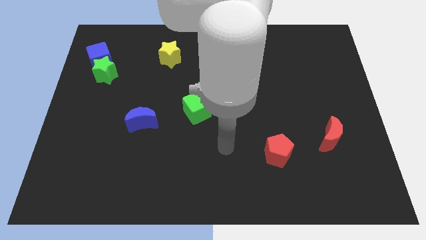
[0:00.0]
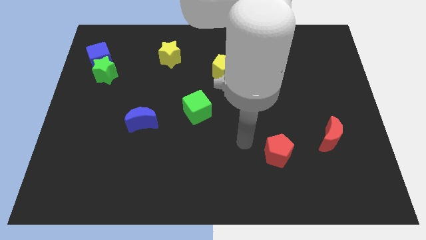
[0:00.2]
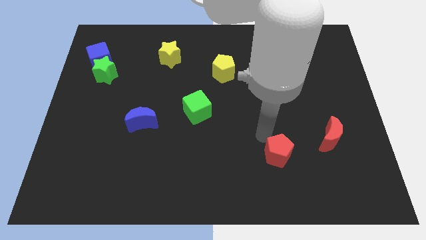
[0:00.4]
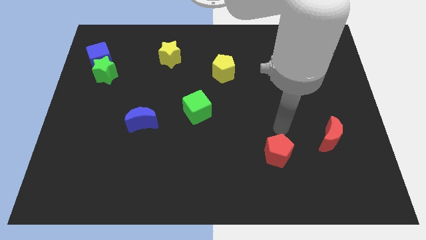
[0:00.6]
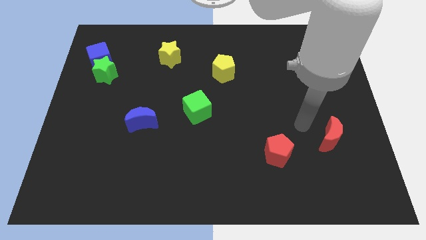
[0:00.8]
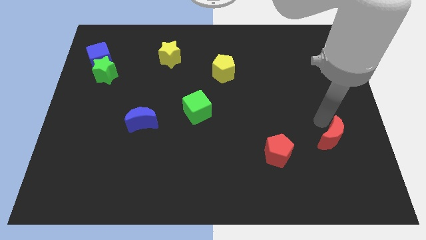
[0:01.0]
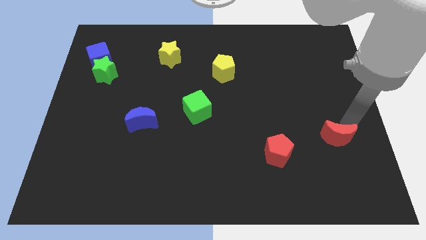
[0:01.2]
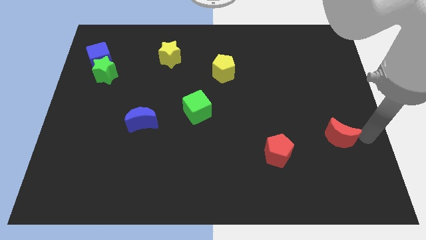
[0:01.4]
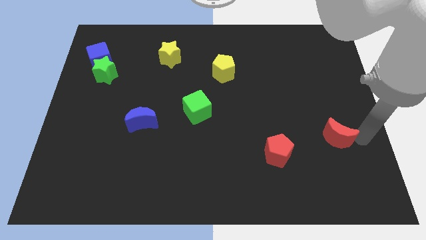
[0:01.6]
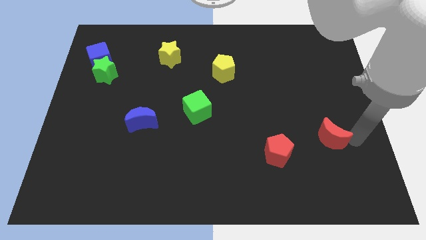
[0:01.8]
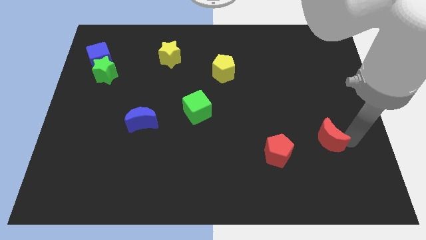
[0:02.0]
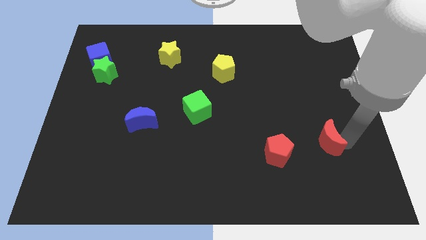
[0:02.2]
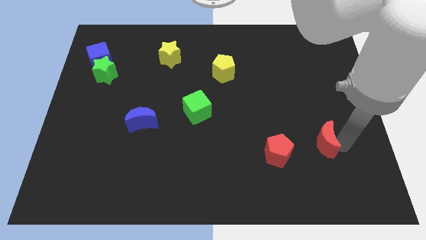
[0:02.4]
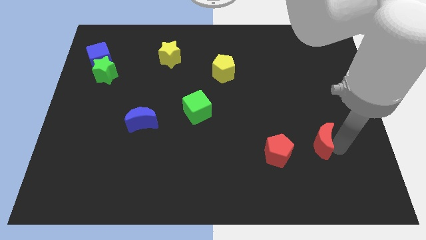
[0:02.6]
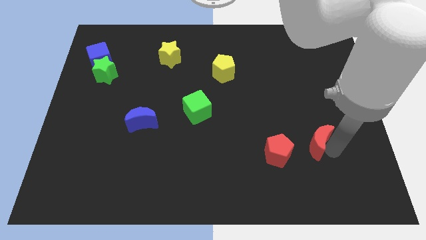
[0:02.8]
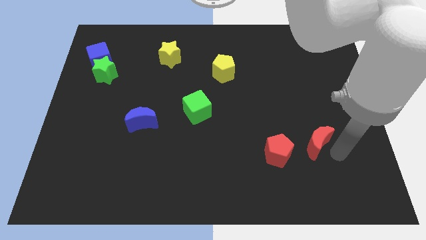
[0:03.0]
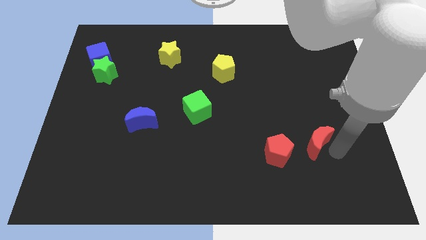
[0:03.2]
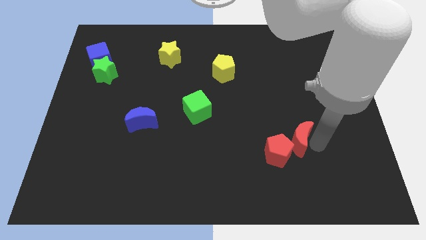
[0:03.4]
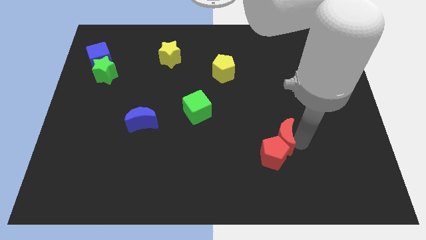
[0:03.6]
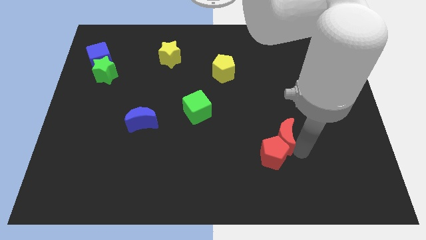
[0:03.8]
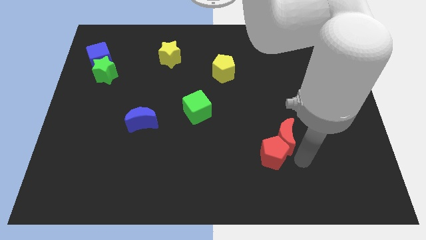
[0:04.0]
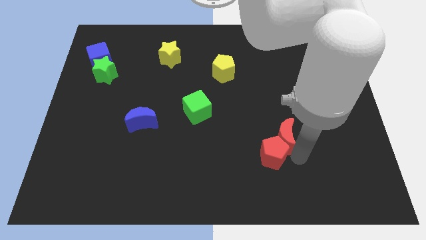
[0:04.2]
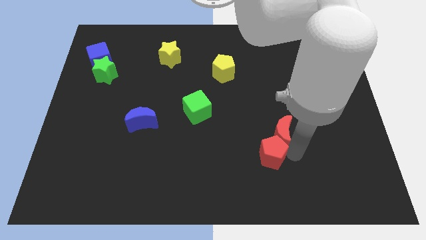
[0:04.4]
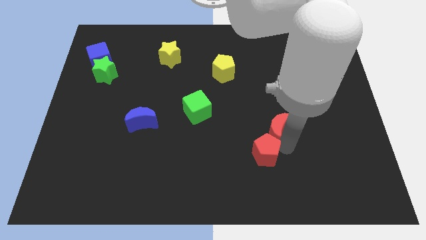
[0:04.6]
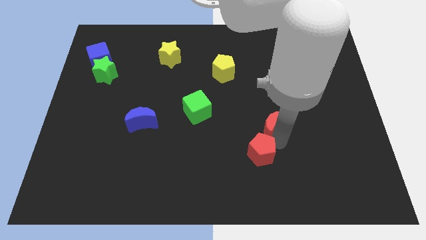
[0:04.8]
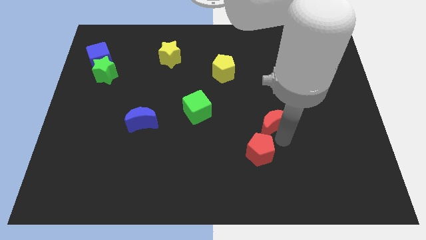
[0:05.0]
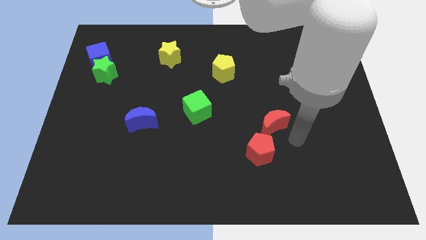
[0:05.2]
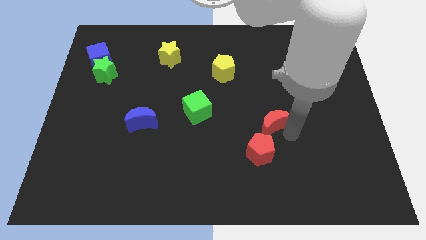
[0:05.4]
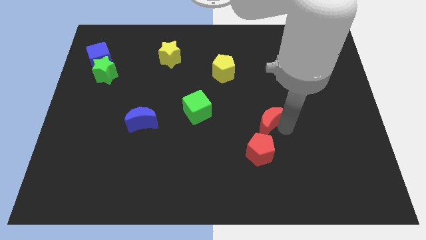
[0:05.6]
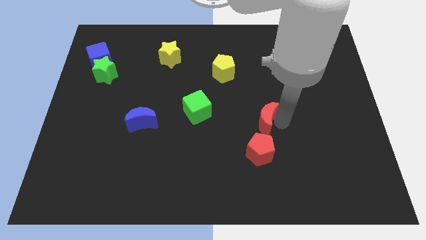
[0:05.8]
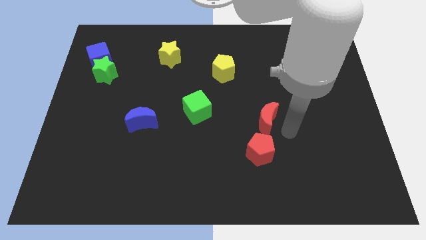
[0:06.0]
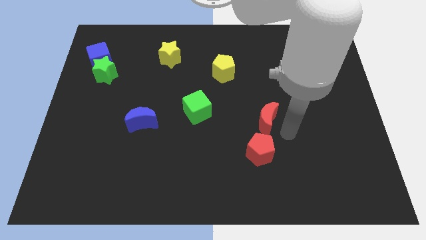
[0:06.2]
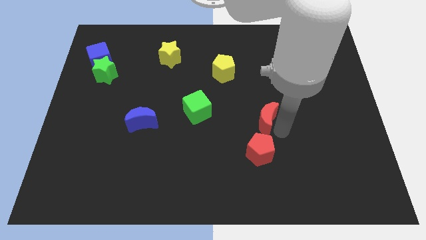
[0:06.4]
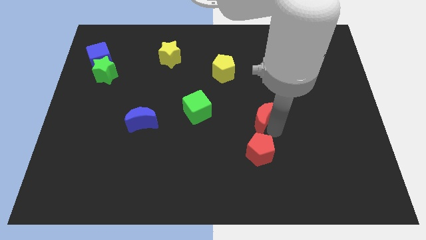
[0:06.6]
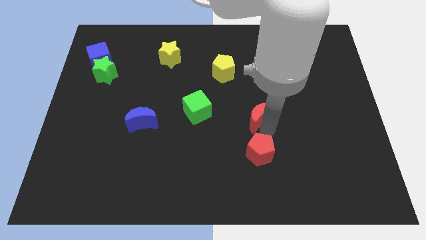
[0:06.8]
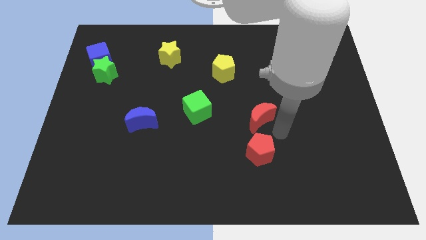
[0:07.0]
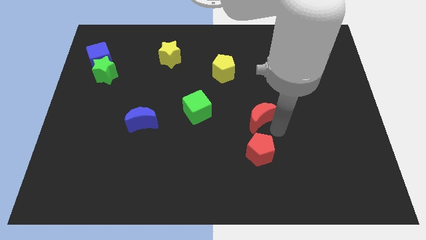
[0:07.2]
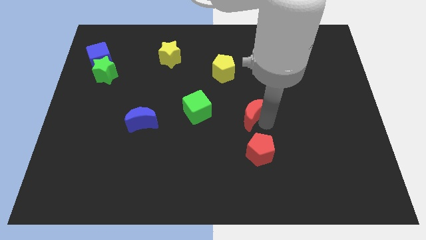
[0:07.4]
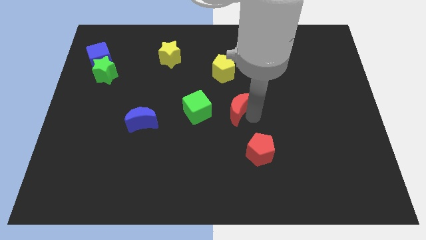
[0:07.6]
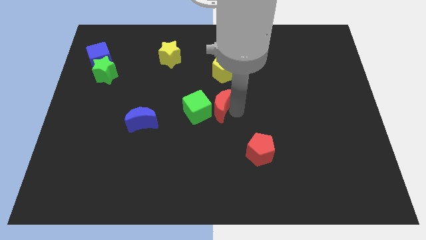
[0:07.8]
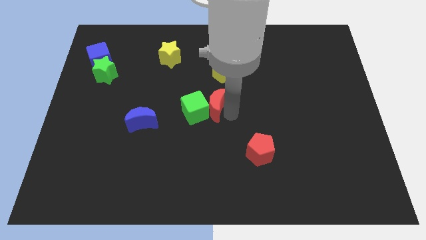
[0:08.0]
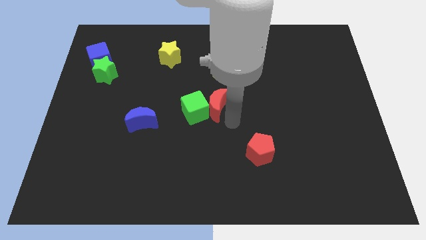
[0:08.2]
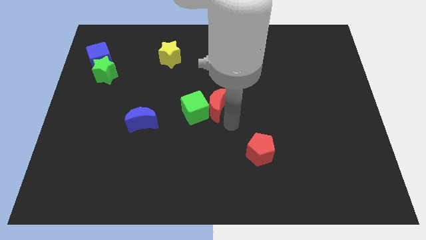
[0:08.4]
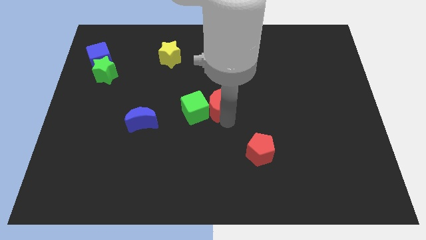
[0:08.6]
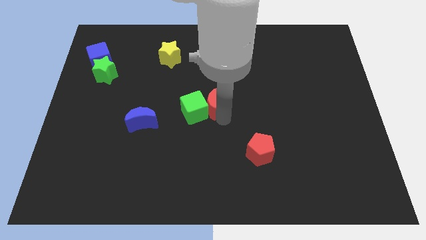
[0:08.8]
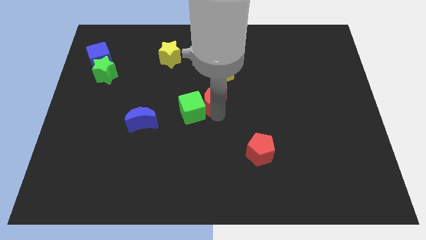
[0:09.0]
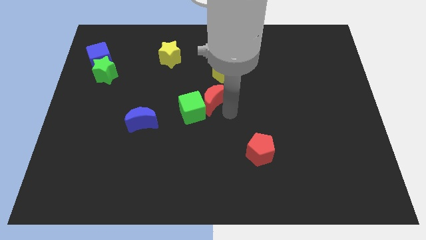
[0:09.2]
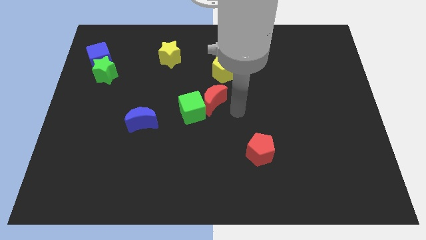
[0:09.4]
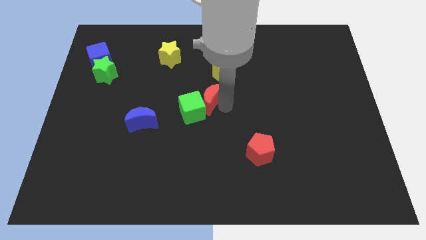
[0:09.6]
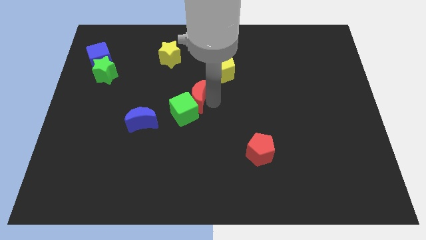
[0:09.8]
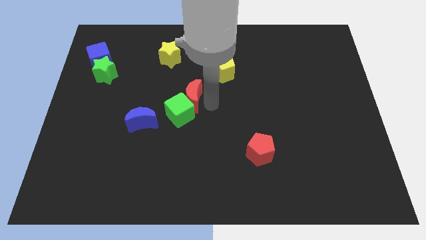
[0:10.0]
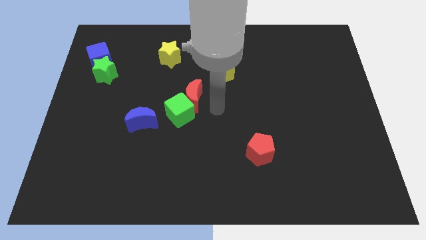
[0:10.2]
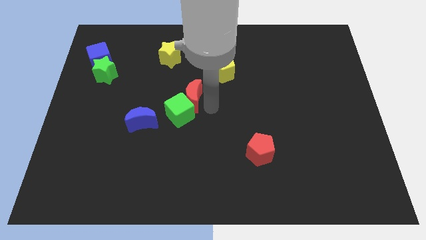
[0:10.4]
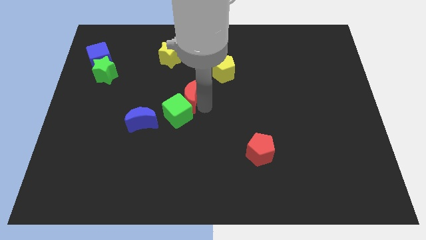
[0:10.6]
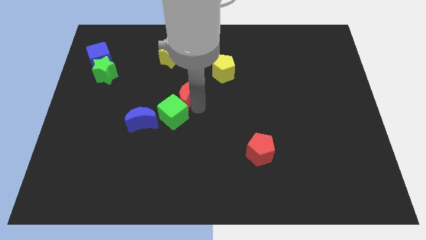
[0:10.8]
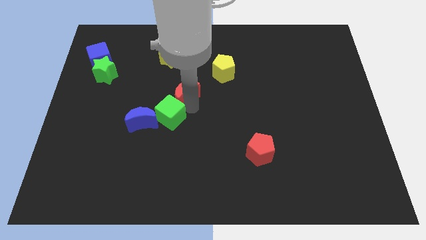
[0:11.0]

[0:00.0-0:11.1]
move the red moon to the bottom of the yellow star

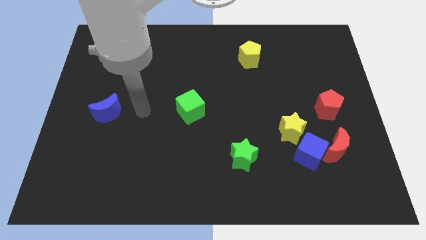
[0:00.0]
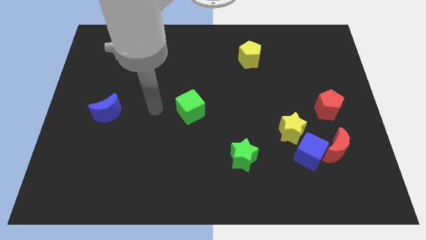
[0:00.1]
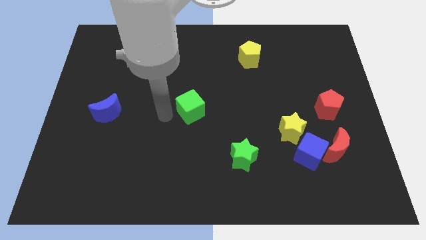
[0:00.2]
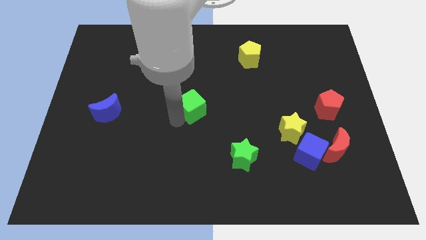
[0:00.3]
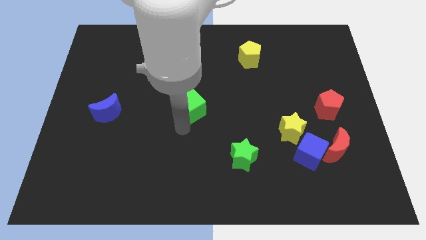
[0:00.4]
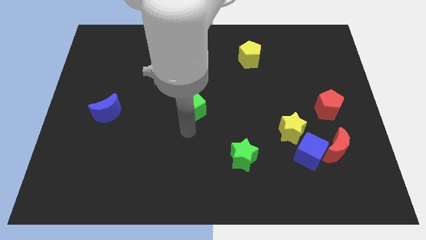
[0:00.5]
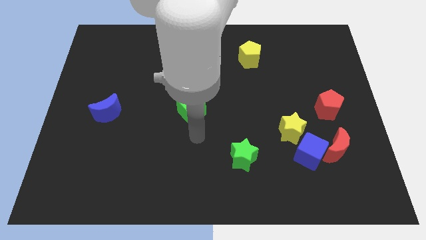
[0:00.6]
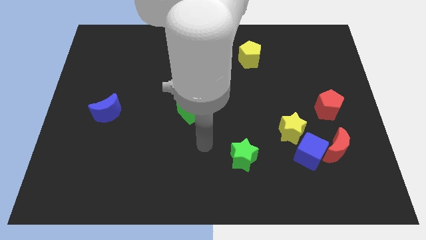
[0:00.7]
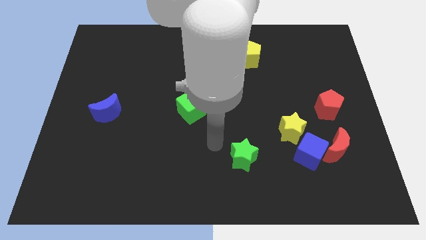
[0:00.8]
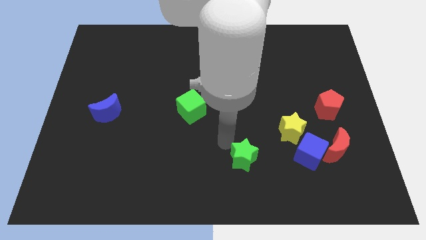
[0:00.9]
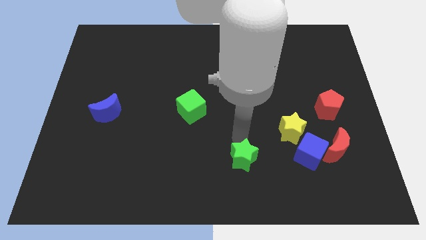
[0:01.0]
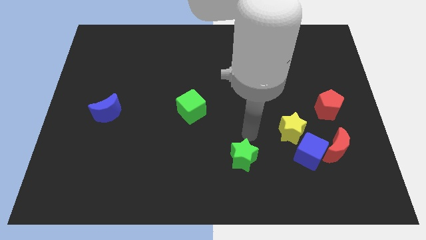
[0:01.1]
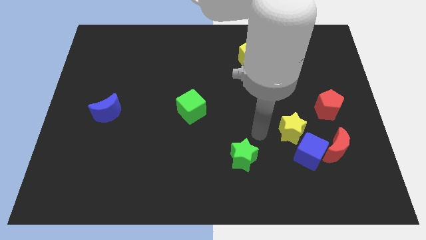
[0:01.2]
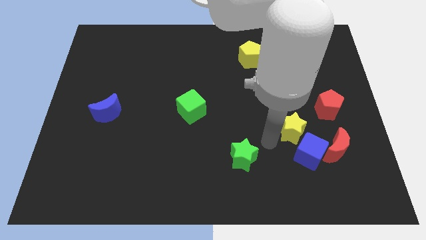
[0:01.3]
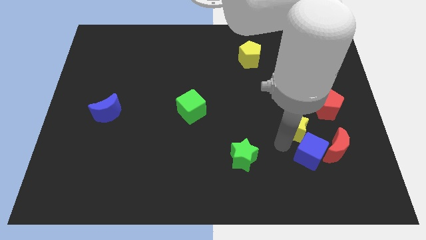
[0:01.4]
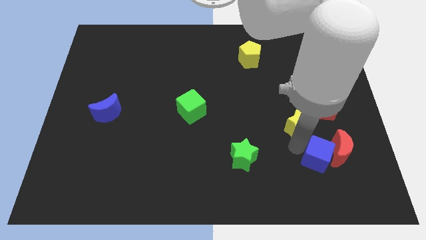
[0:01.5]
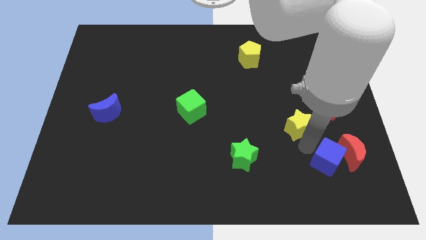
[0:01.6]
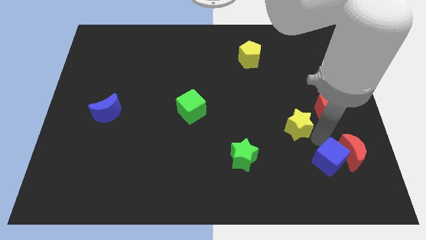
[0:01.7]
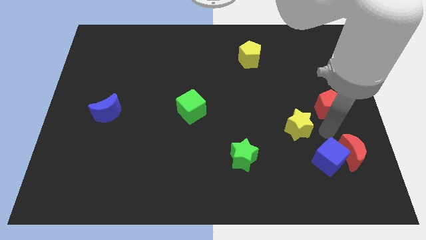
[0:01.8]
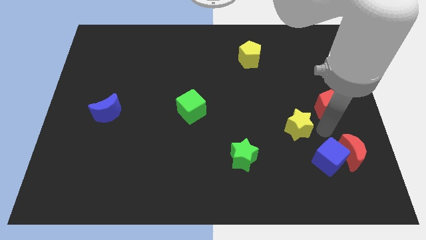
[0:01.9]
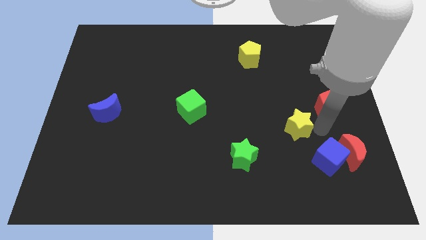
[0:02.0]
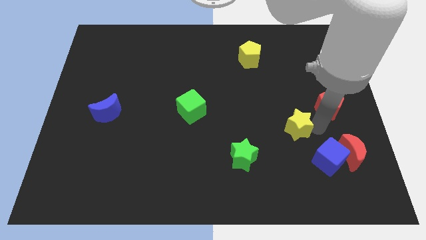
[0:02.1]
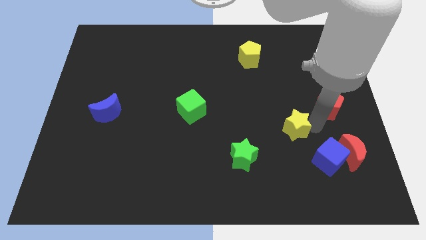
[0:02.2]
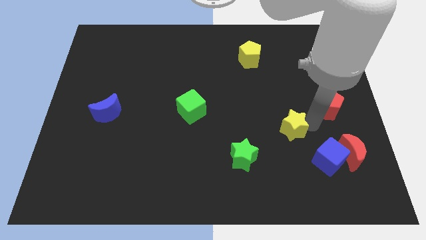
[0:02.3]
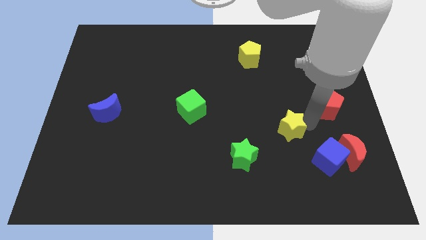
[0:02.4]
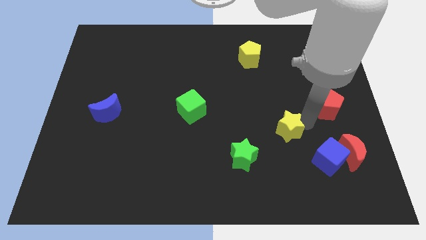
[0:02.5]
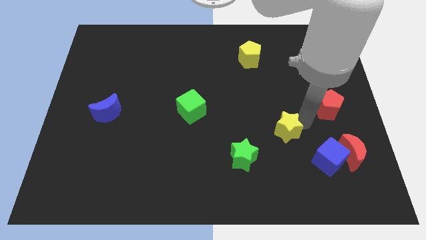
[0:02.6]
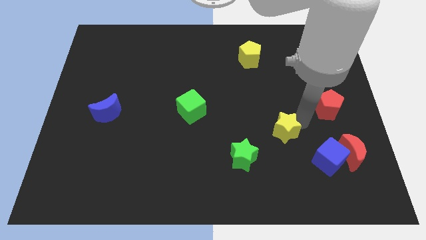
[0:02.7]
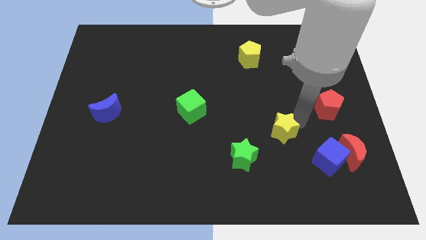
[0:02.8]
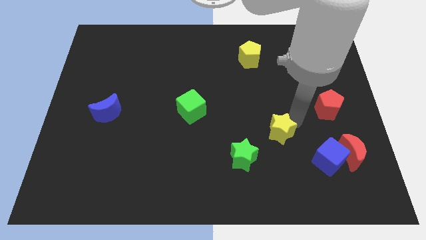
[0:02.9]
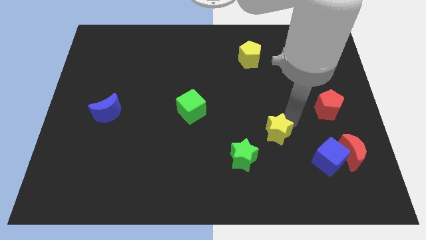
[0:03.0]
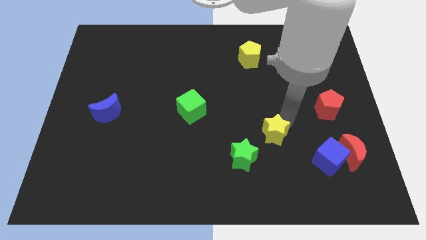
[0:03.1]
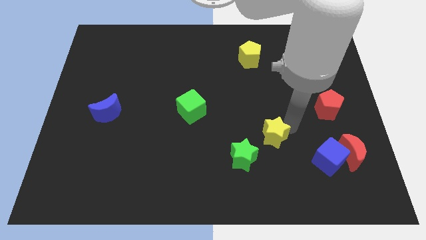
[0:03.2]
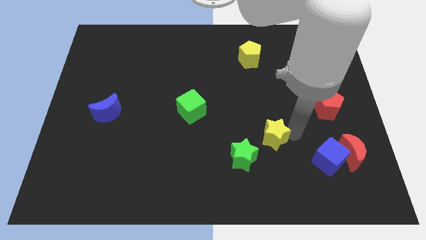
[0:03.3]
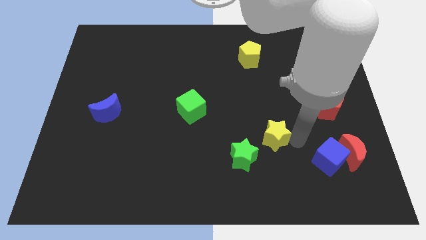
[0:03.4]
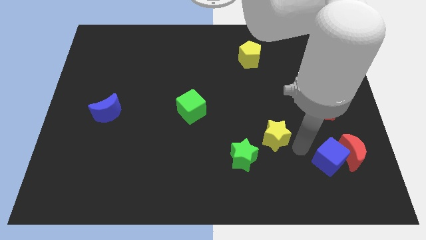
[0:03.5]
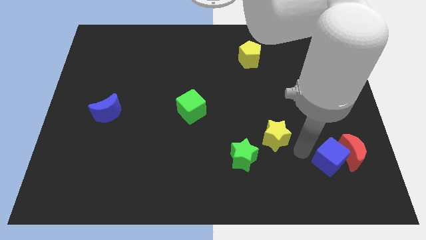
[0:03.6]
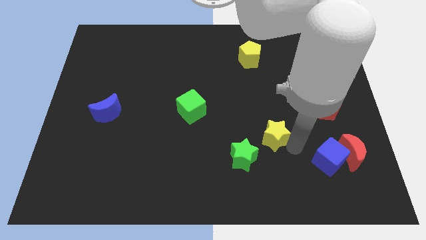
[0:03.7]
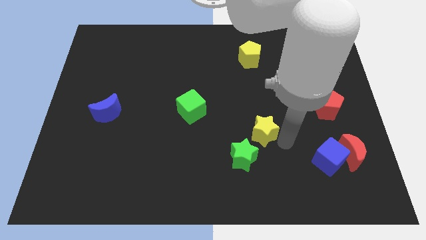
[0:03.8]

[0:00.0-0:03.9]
move the yellow star to the top of the green star
